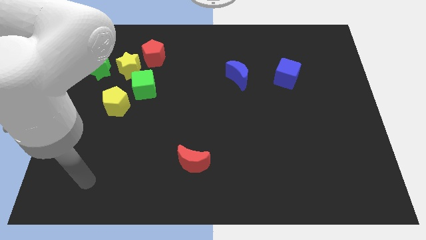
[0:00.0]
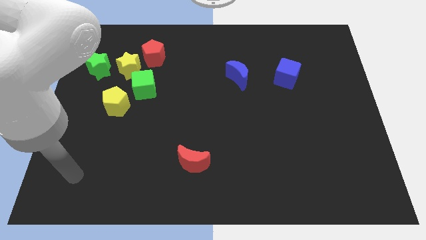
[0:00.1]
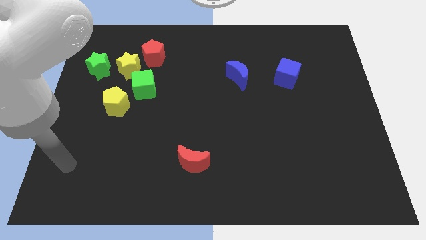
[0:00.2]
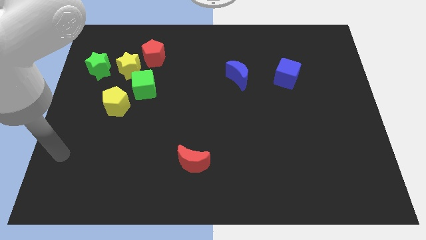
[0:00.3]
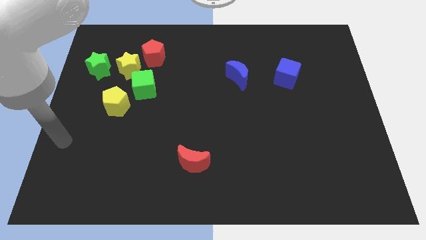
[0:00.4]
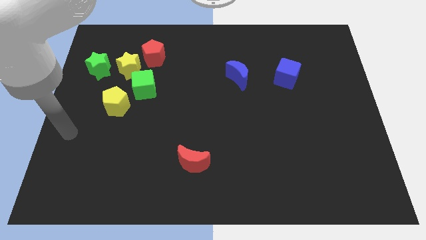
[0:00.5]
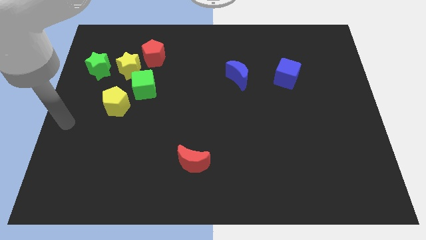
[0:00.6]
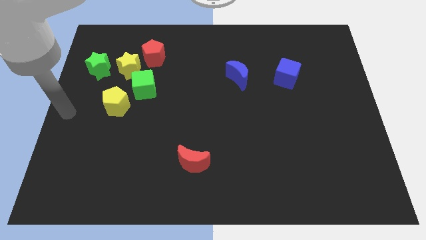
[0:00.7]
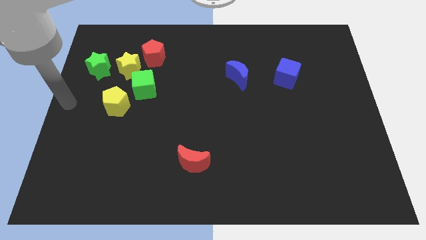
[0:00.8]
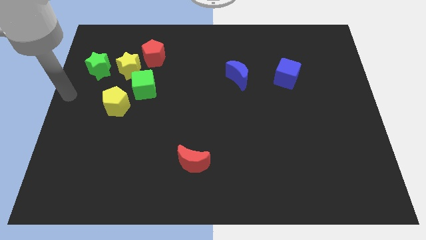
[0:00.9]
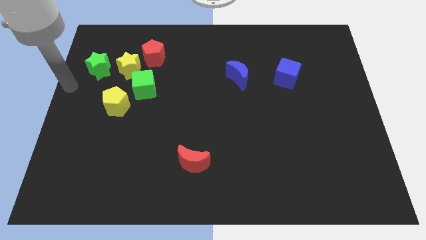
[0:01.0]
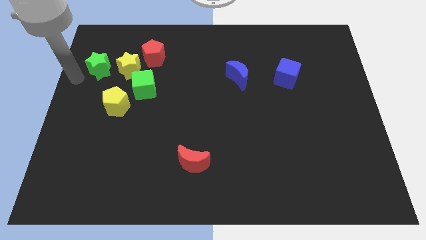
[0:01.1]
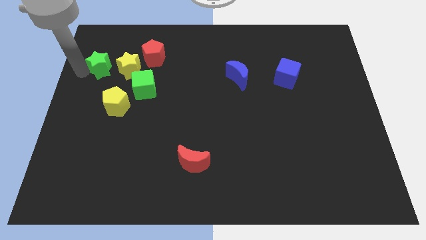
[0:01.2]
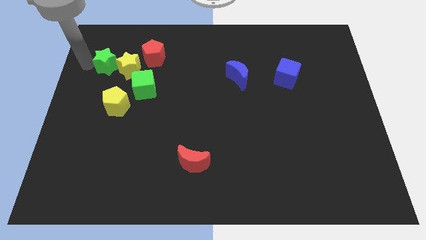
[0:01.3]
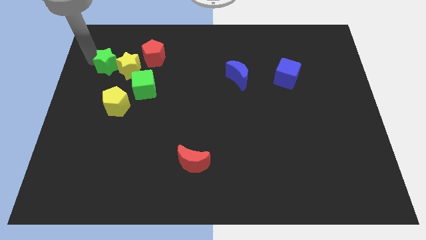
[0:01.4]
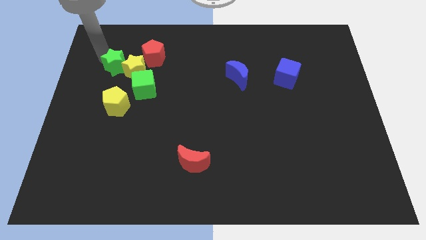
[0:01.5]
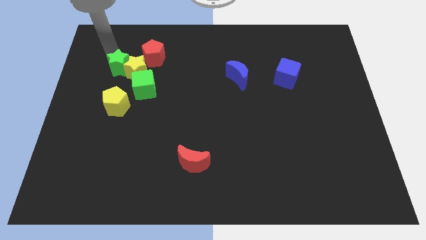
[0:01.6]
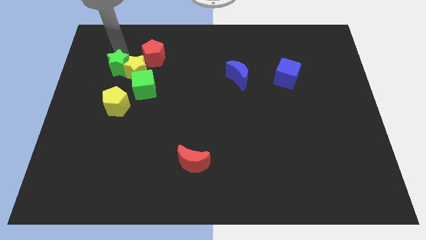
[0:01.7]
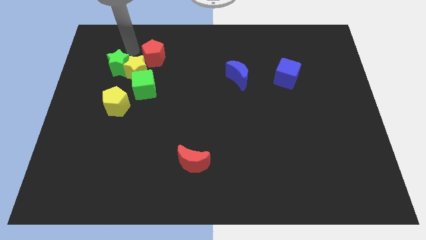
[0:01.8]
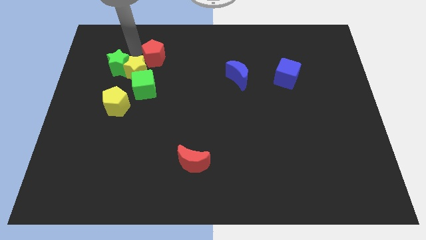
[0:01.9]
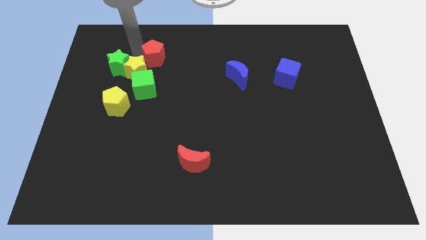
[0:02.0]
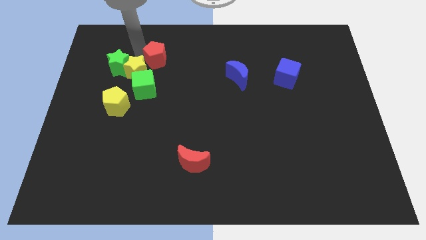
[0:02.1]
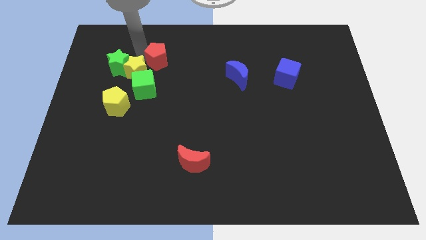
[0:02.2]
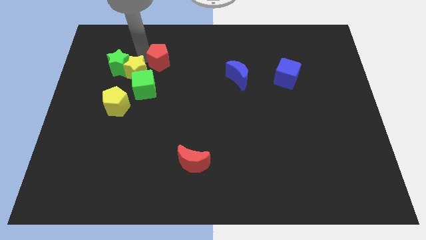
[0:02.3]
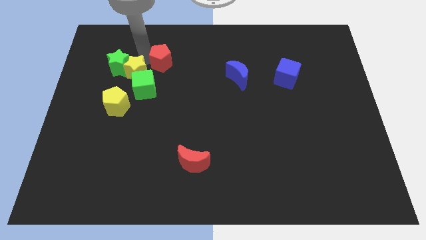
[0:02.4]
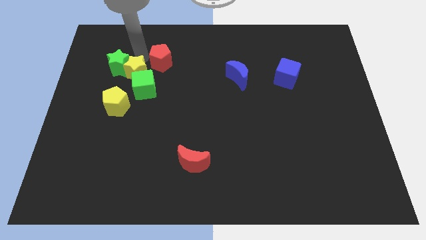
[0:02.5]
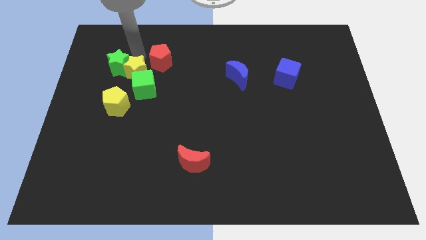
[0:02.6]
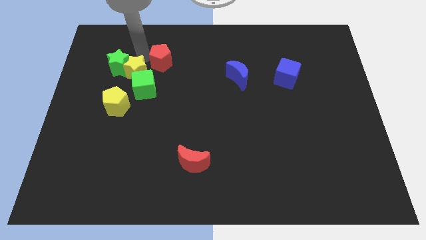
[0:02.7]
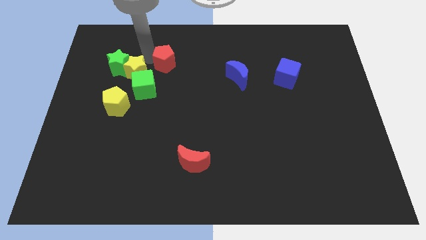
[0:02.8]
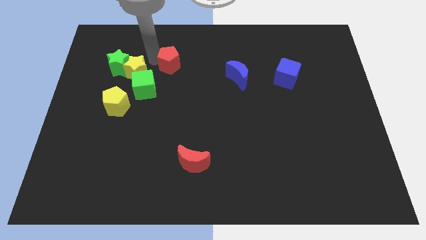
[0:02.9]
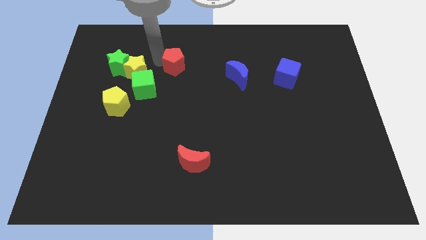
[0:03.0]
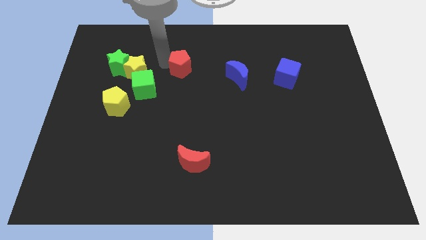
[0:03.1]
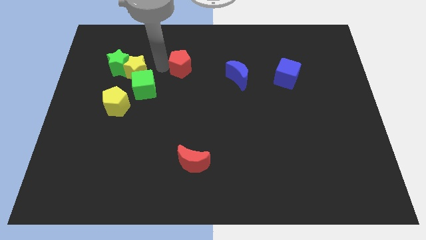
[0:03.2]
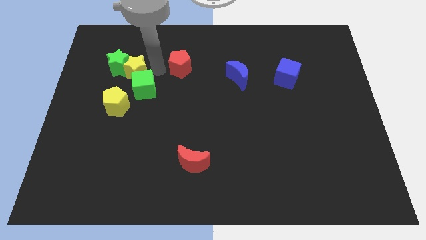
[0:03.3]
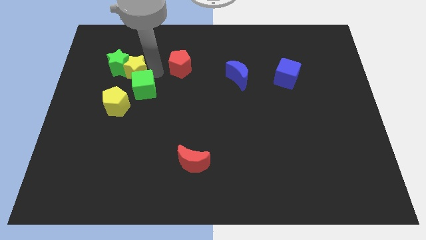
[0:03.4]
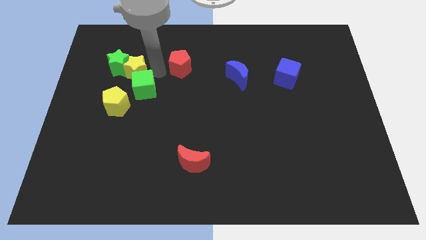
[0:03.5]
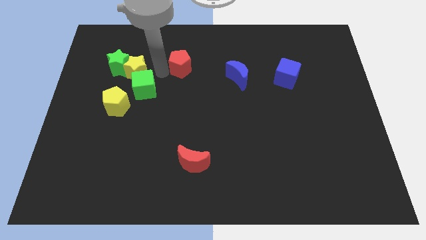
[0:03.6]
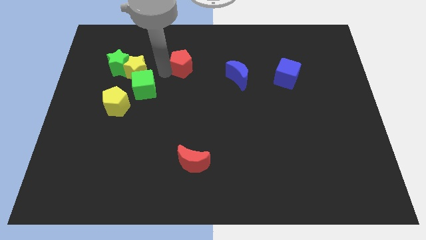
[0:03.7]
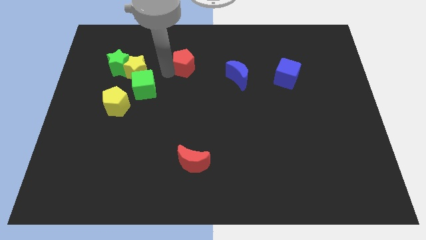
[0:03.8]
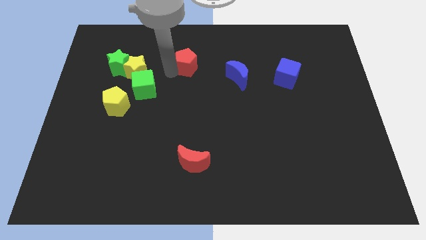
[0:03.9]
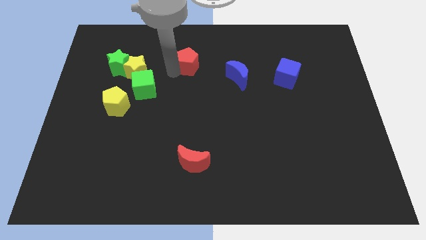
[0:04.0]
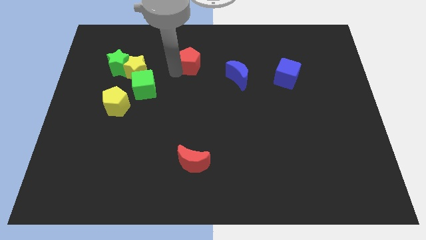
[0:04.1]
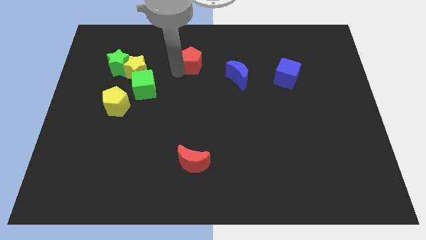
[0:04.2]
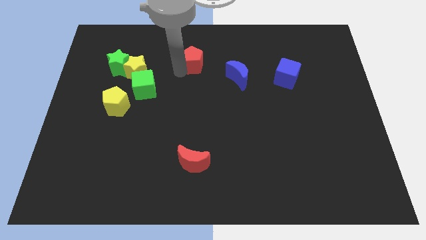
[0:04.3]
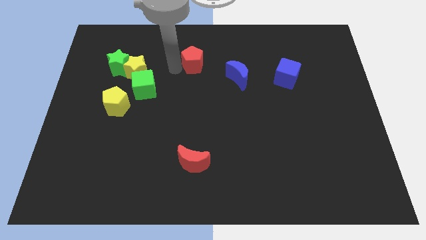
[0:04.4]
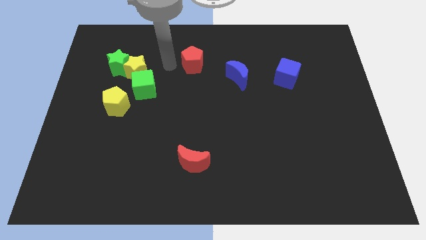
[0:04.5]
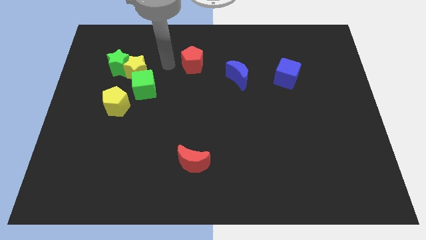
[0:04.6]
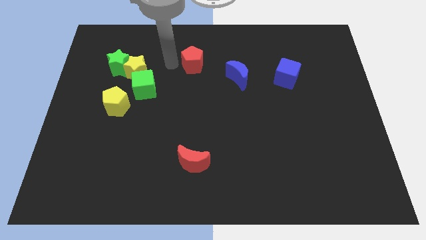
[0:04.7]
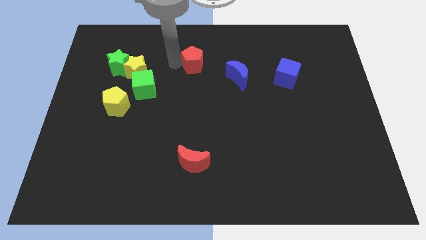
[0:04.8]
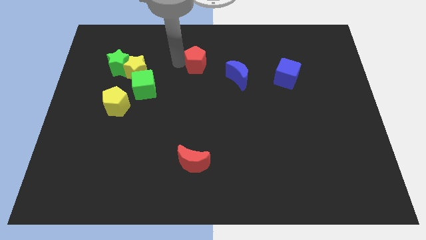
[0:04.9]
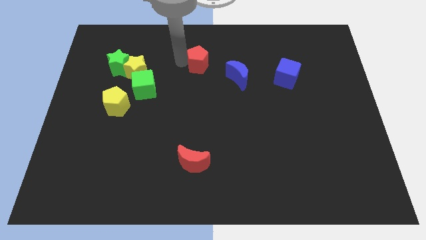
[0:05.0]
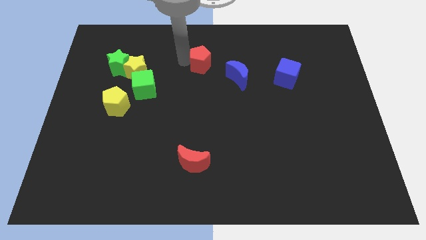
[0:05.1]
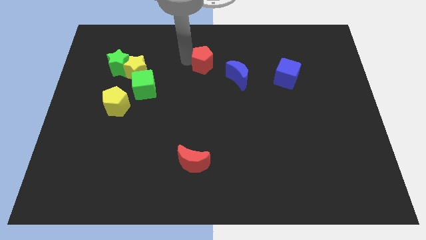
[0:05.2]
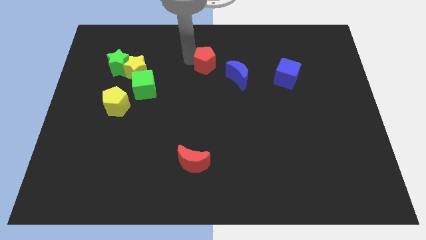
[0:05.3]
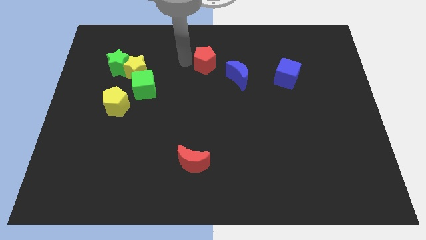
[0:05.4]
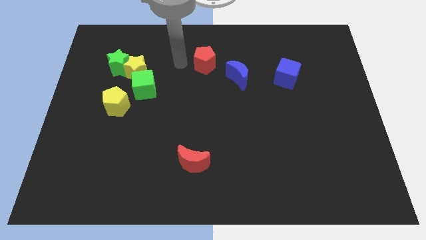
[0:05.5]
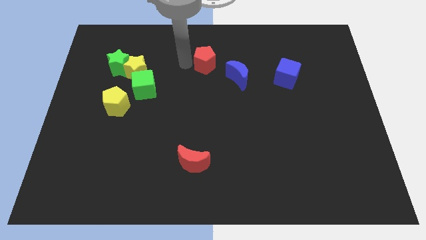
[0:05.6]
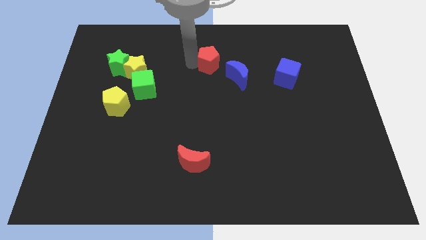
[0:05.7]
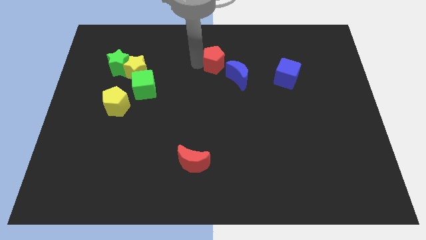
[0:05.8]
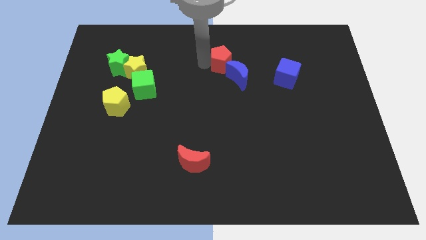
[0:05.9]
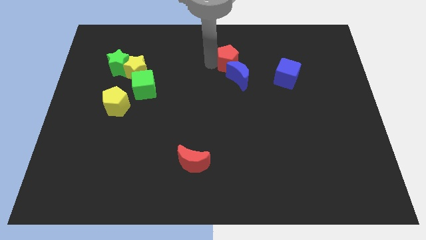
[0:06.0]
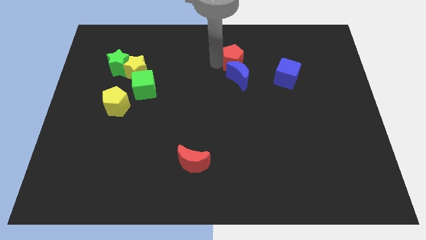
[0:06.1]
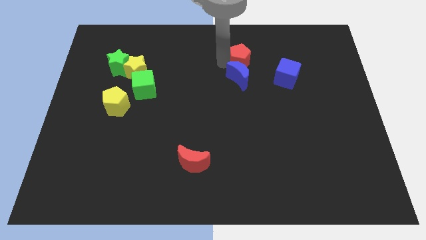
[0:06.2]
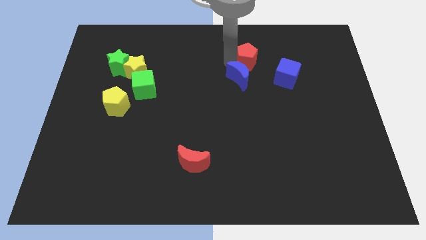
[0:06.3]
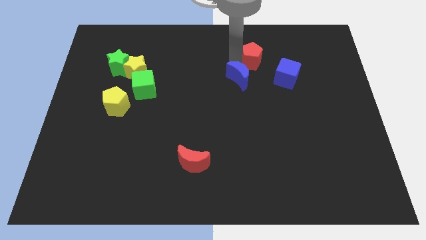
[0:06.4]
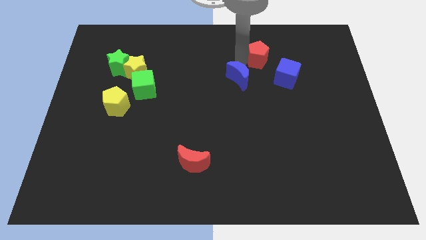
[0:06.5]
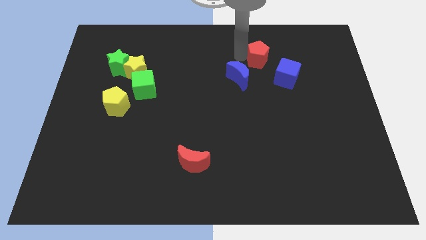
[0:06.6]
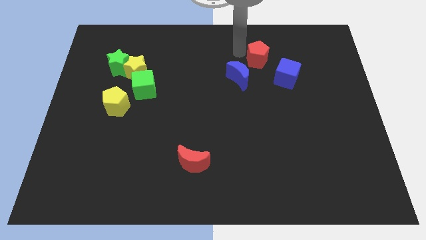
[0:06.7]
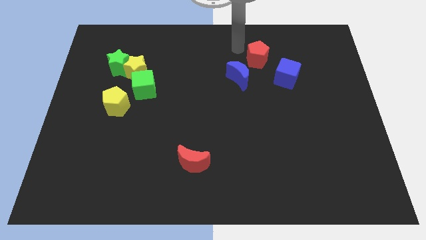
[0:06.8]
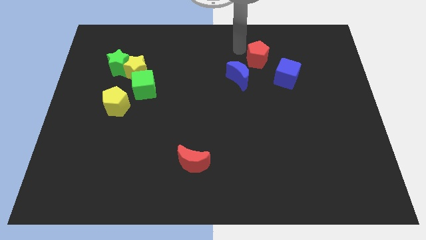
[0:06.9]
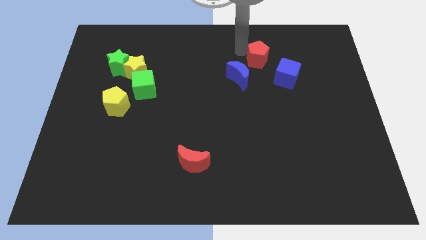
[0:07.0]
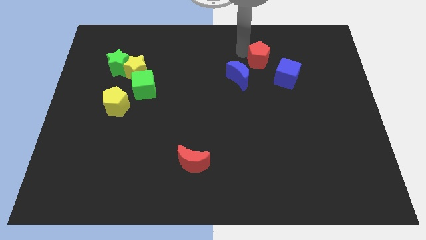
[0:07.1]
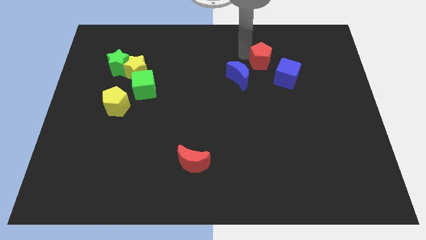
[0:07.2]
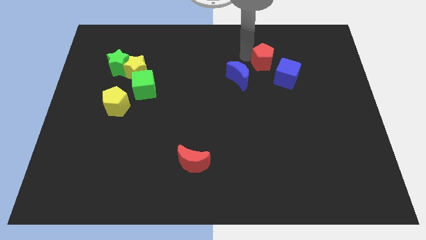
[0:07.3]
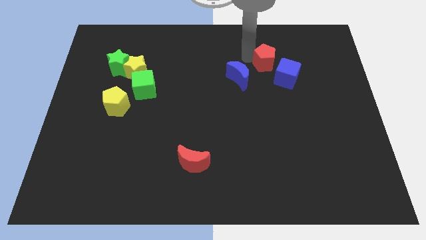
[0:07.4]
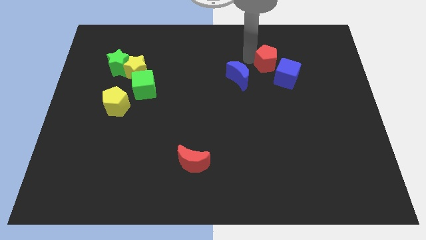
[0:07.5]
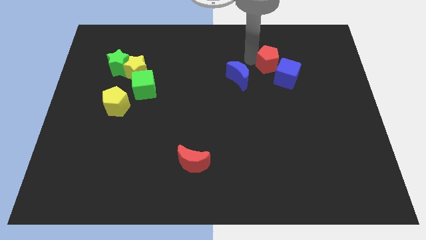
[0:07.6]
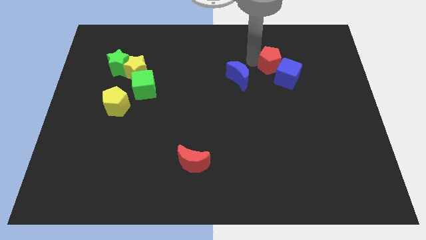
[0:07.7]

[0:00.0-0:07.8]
put the red pentagon to the blue cube
